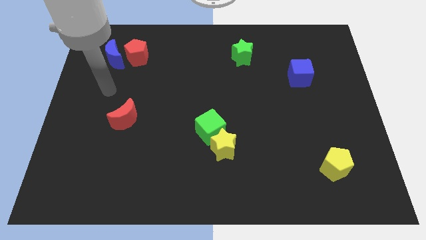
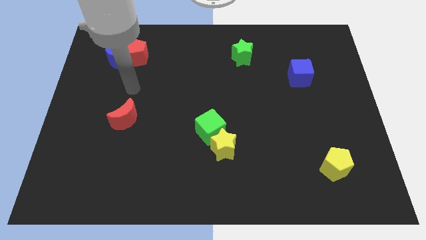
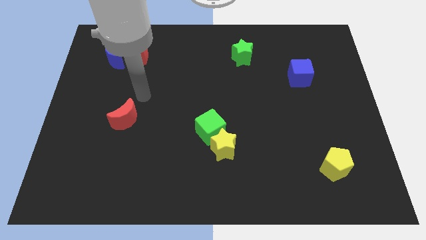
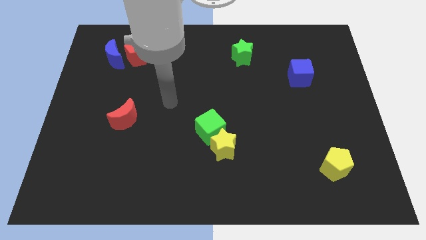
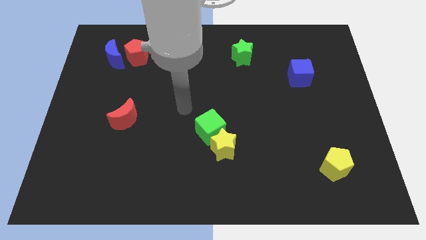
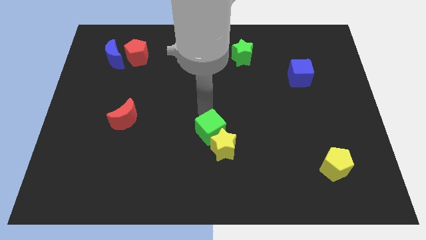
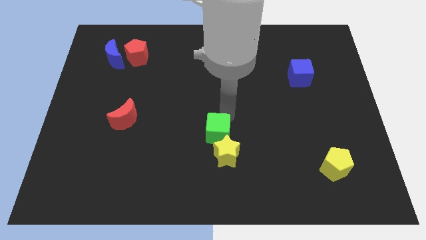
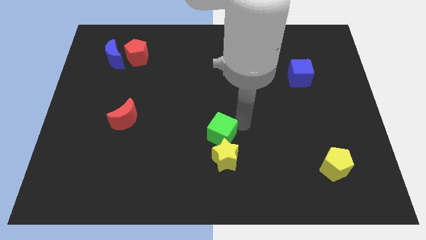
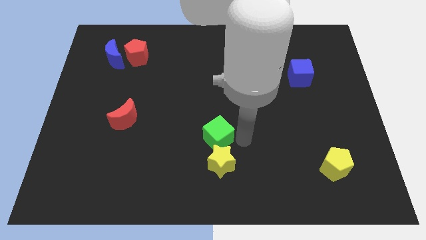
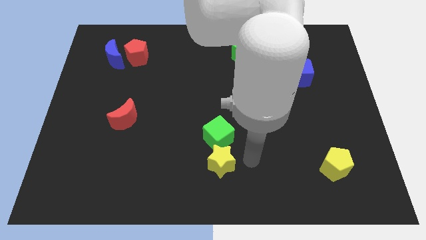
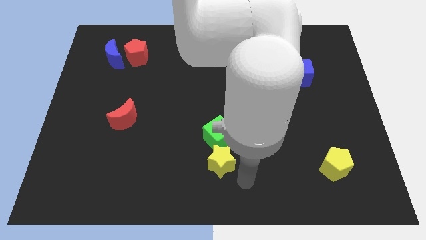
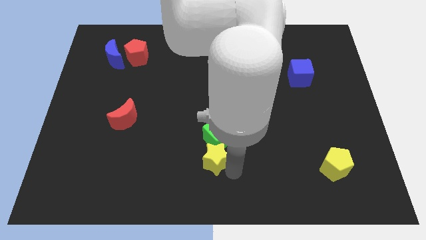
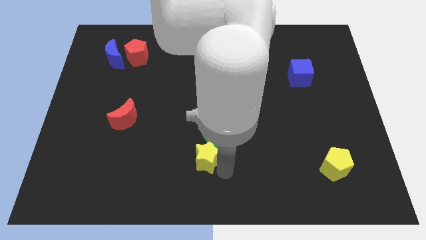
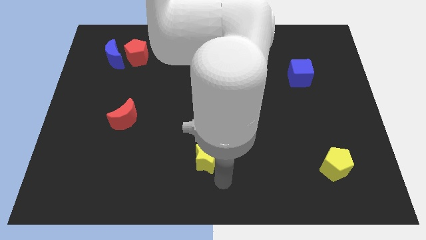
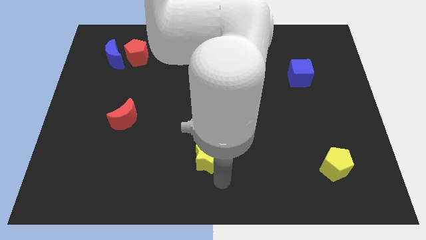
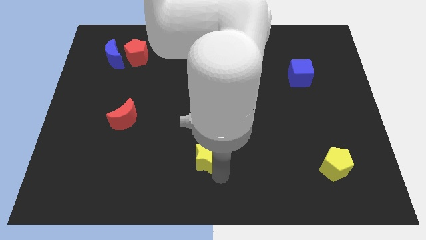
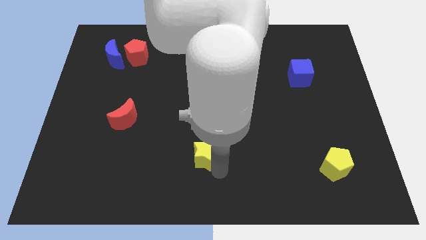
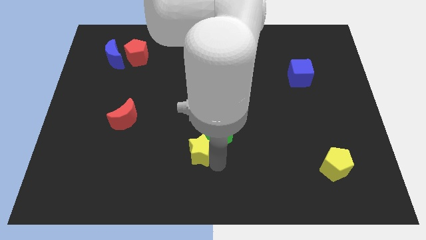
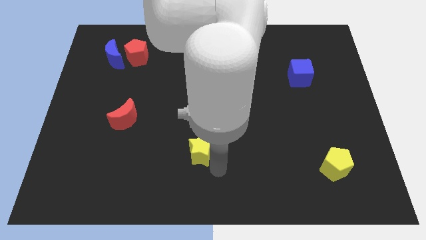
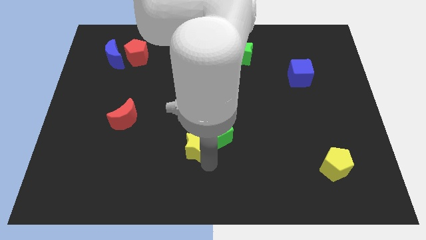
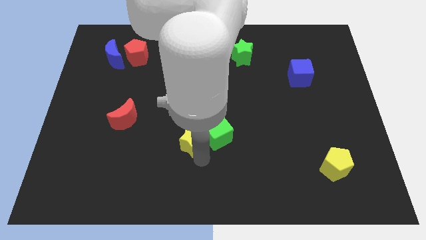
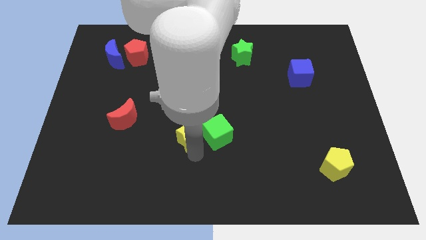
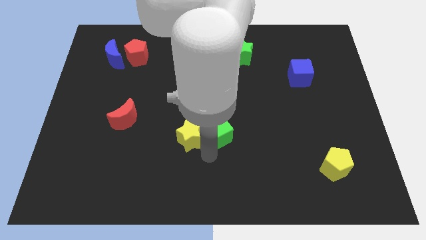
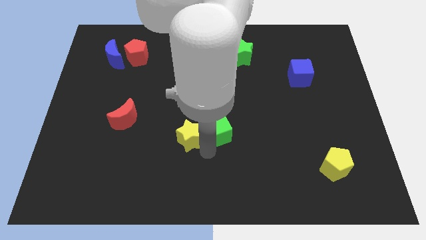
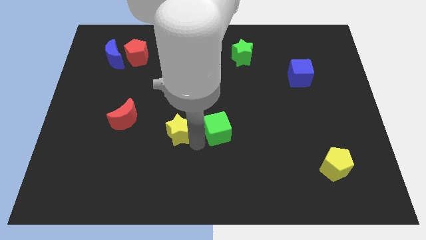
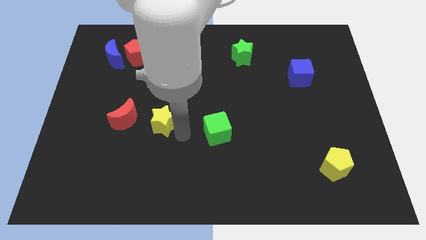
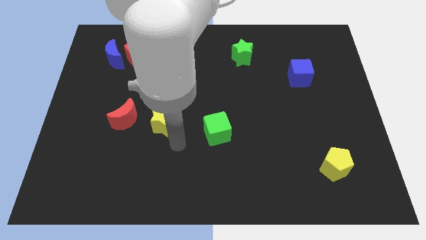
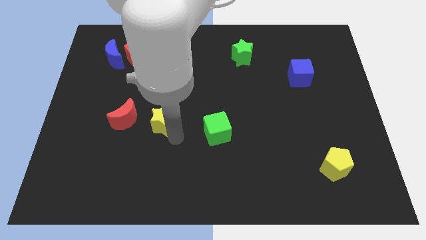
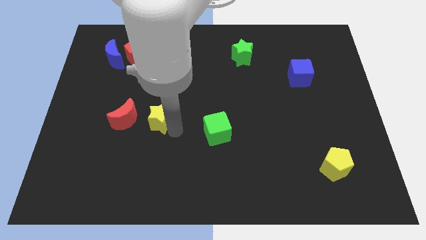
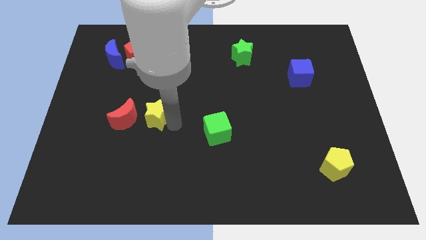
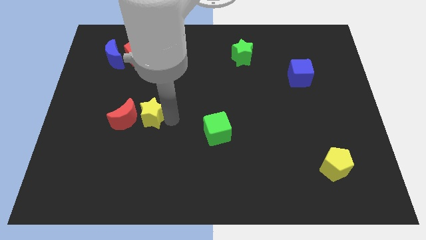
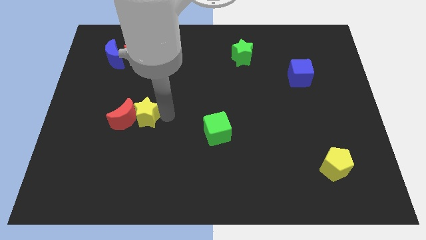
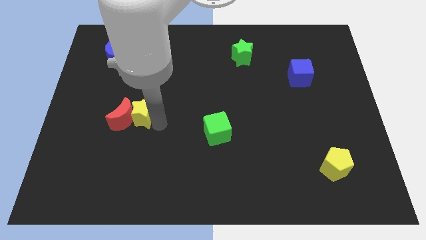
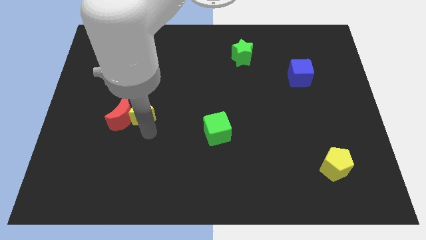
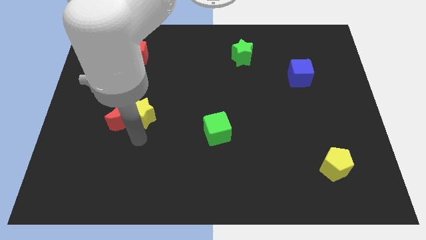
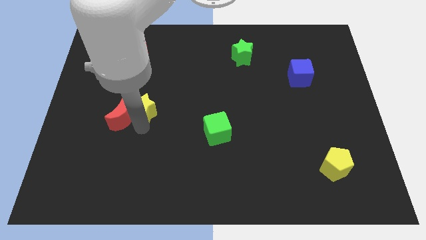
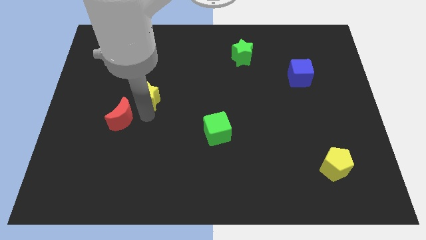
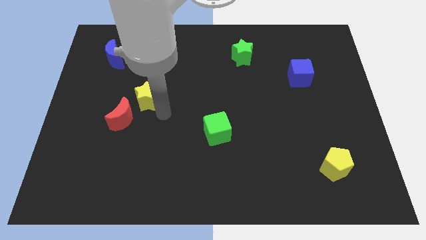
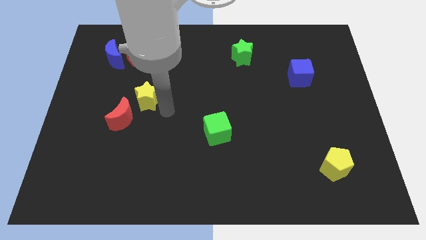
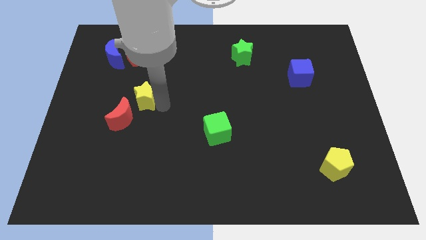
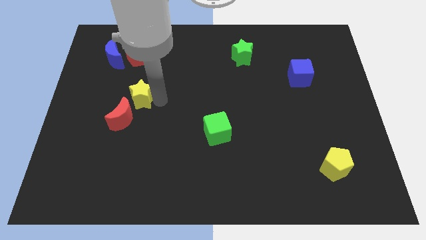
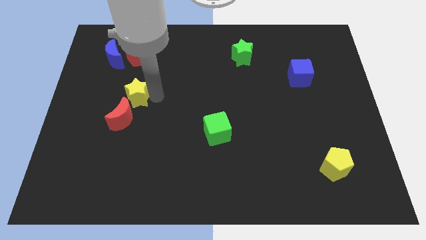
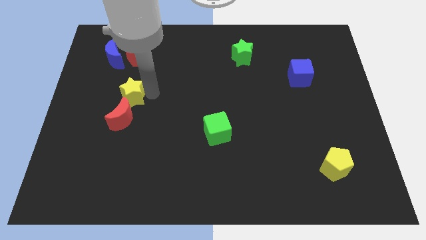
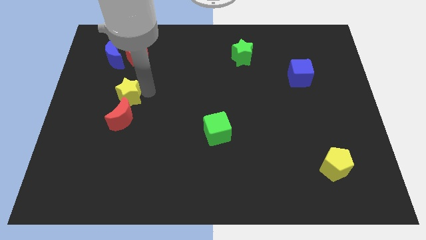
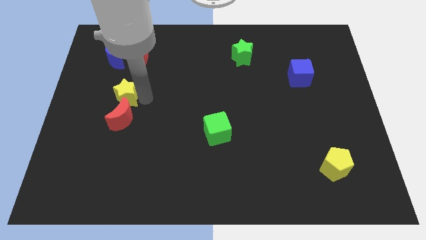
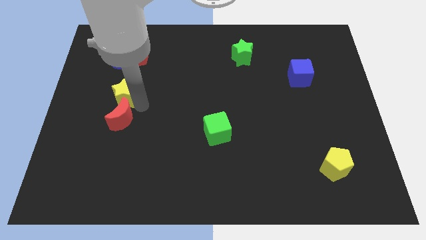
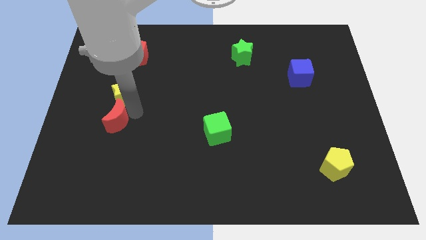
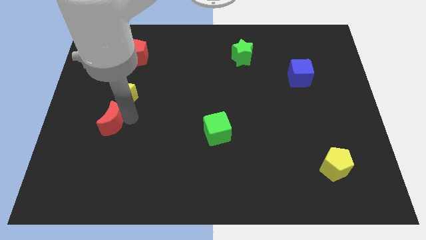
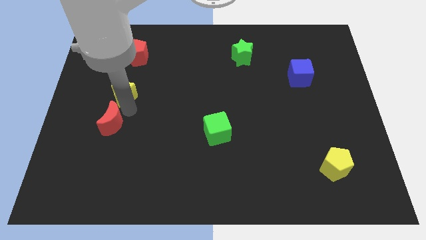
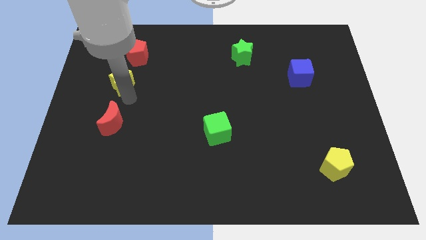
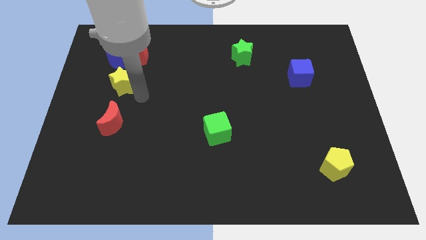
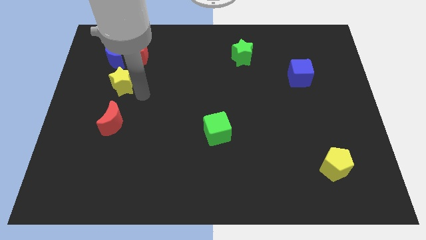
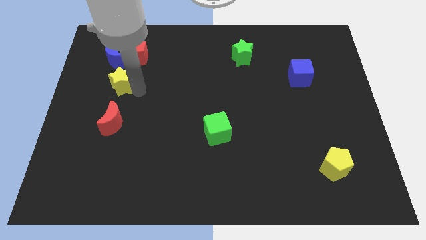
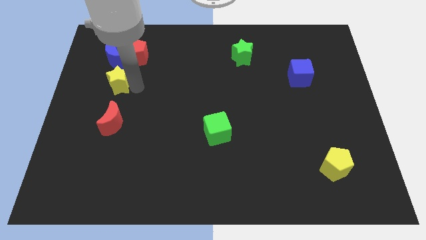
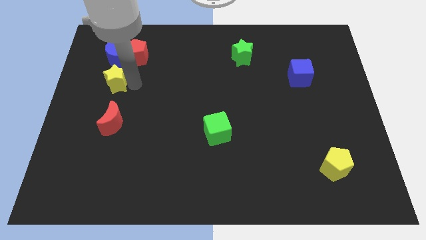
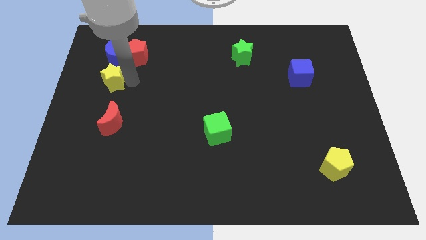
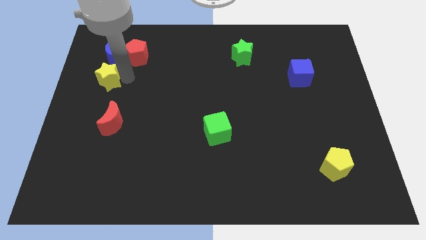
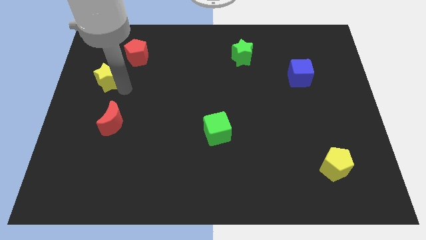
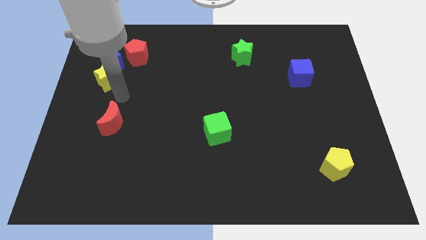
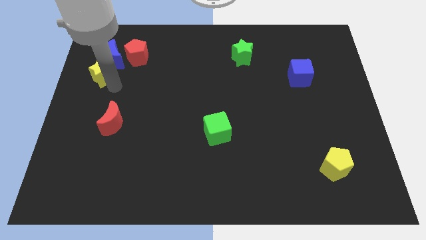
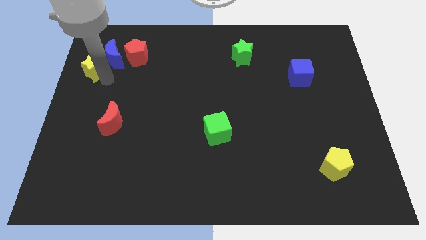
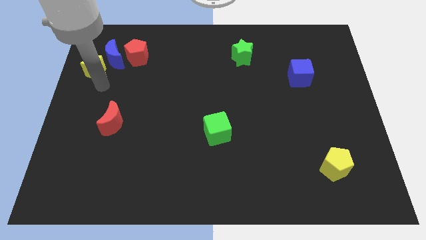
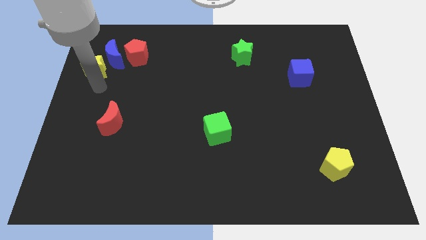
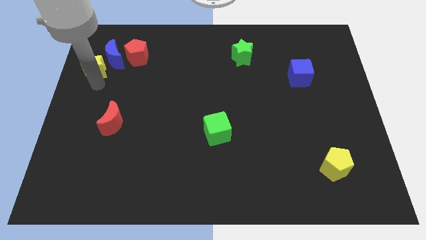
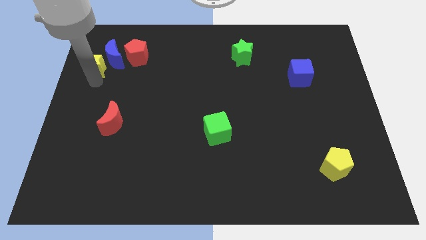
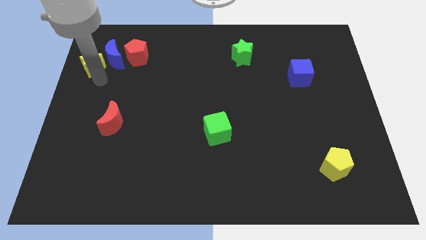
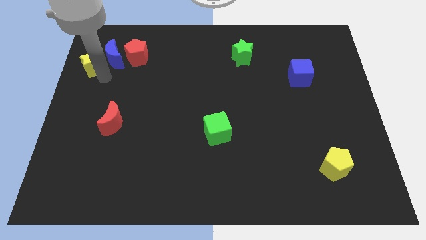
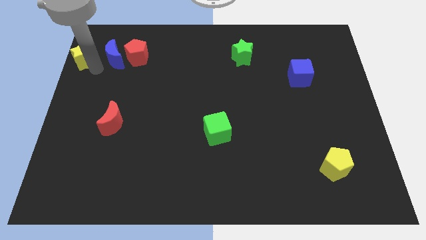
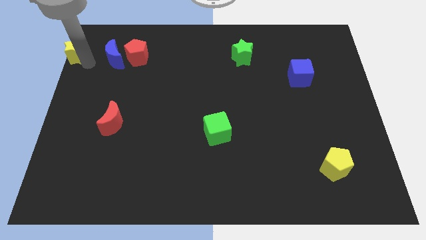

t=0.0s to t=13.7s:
slide the yellow star to the upper left corner

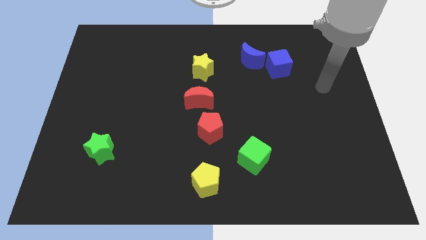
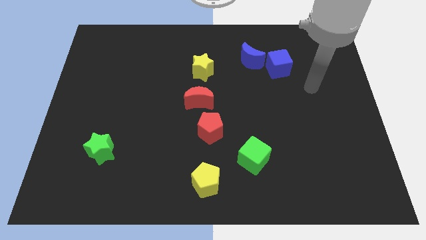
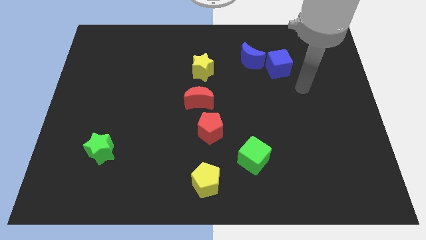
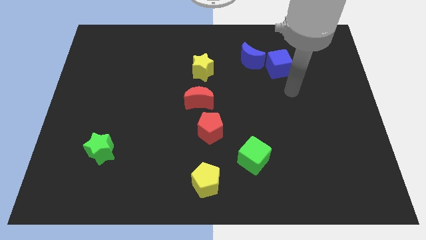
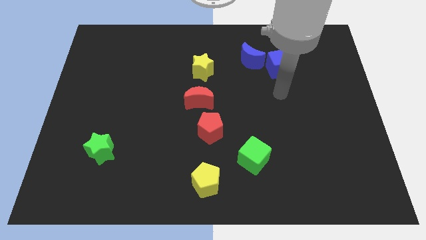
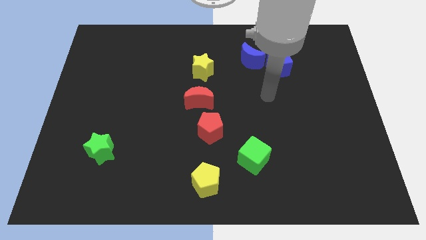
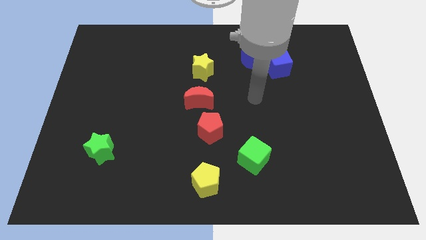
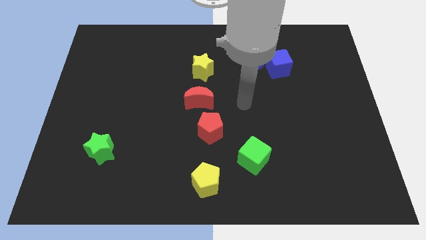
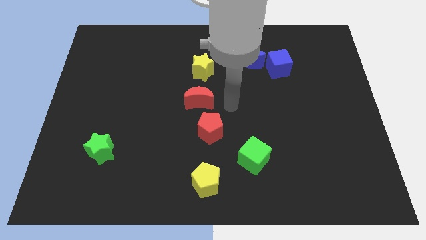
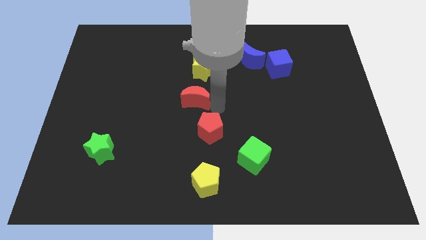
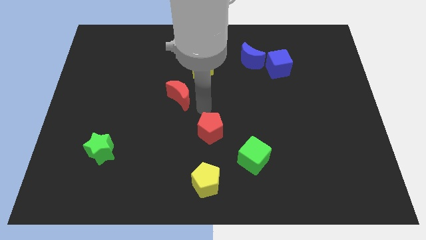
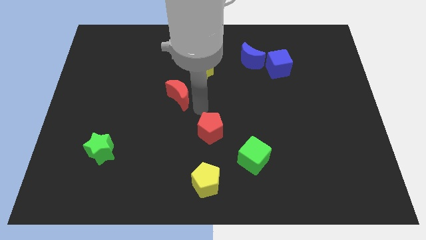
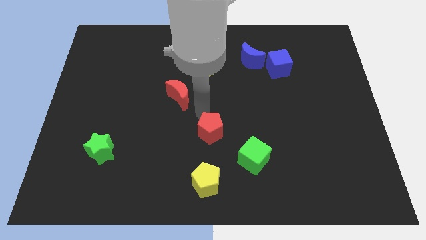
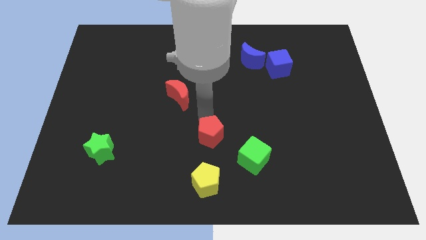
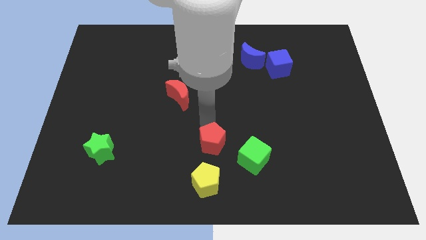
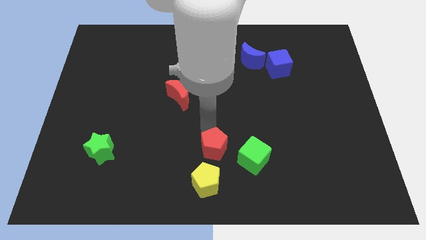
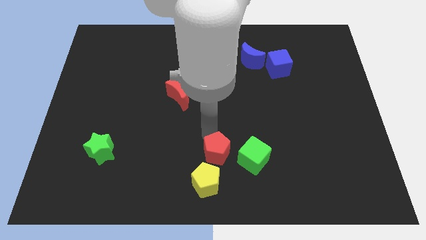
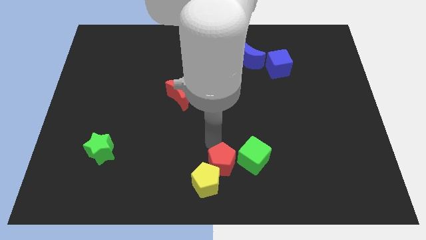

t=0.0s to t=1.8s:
put the red pentagon to the bottom
